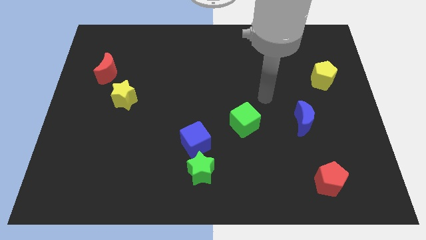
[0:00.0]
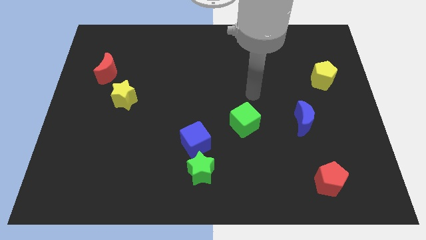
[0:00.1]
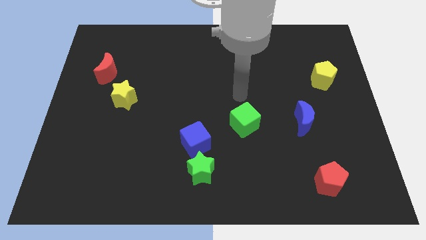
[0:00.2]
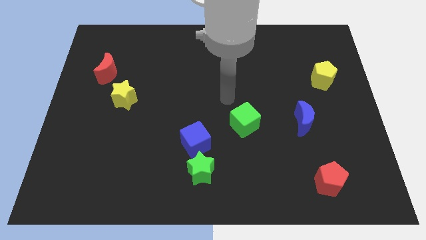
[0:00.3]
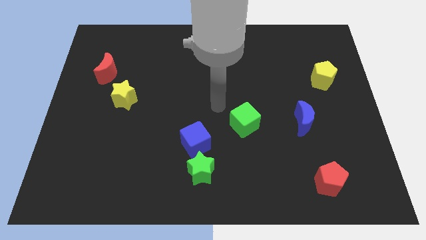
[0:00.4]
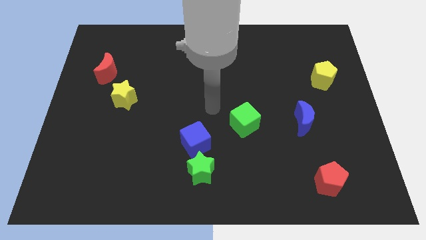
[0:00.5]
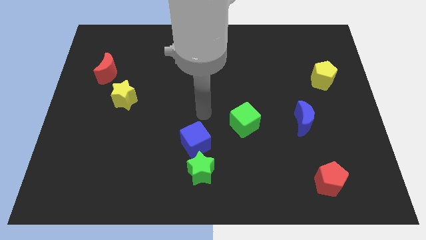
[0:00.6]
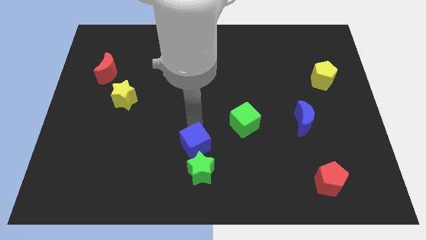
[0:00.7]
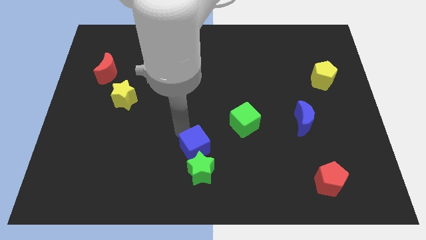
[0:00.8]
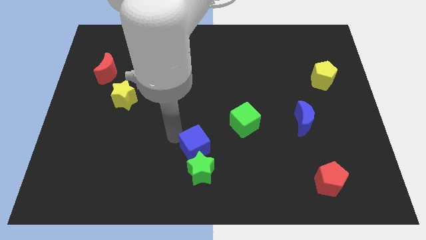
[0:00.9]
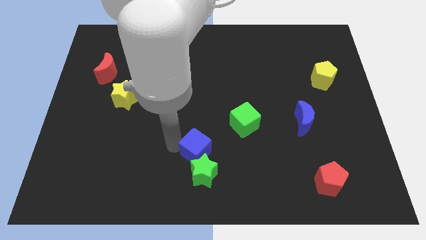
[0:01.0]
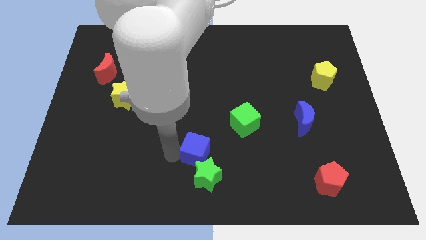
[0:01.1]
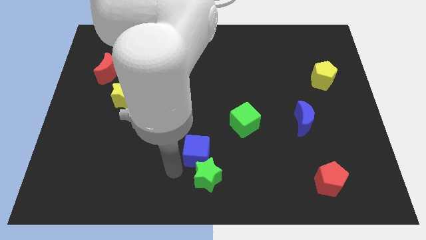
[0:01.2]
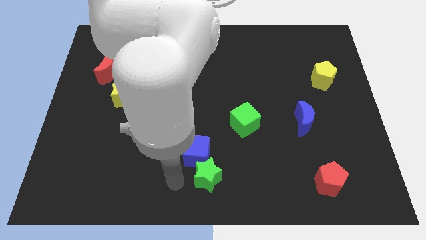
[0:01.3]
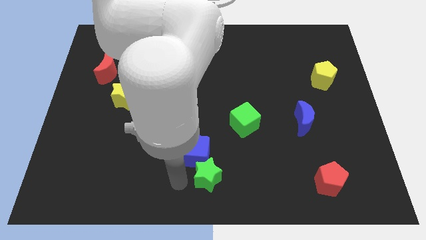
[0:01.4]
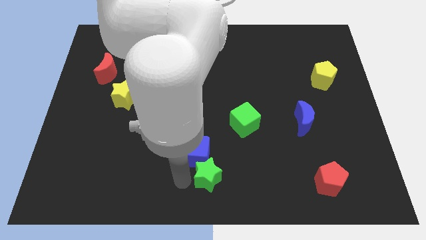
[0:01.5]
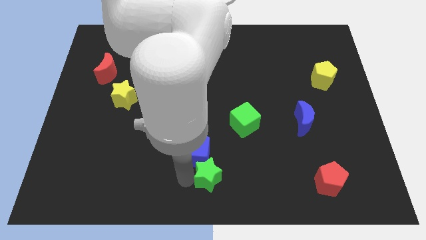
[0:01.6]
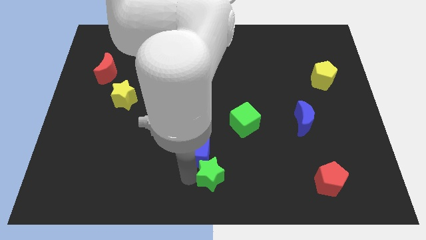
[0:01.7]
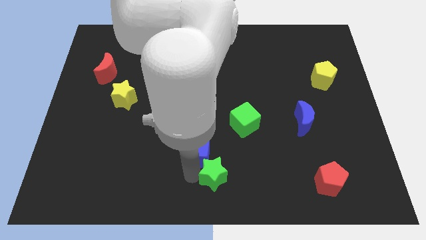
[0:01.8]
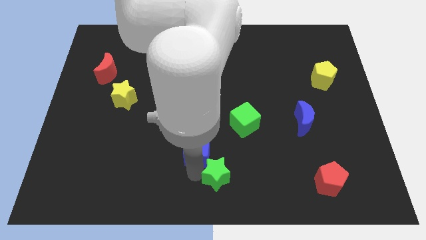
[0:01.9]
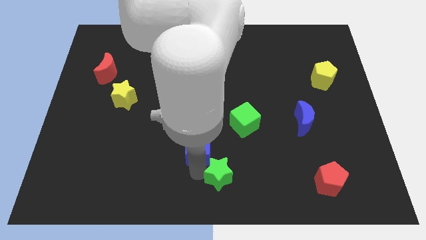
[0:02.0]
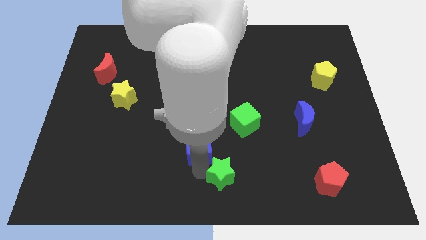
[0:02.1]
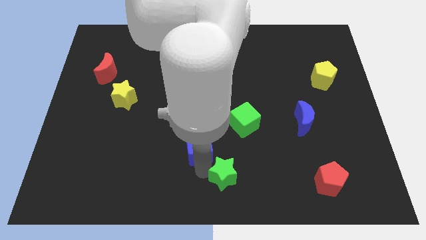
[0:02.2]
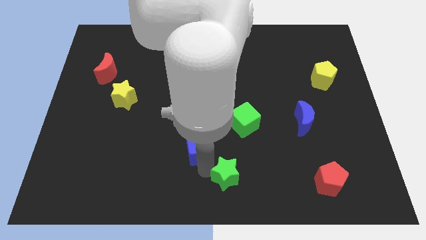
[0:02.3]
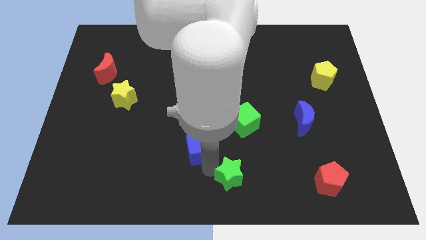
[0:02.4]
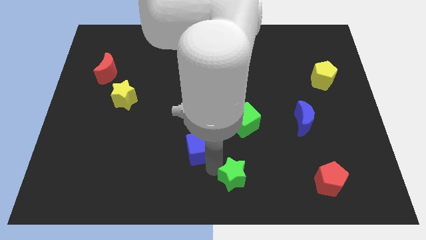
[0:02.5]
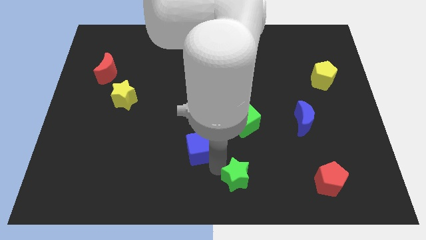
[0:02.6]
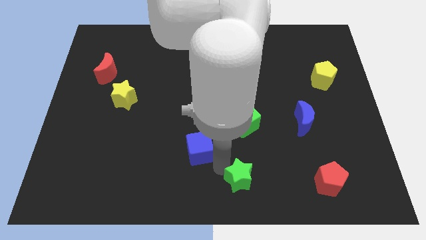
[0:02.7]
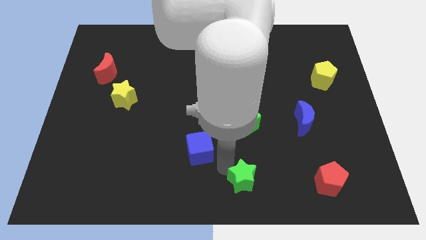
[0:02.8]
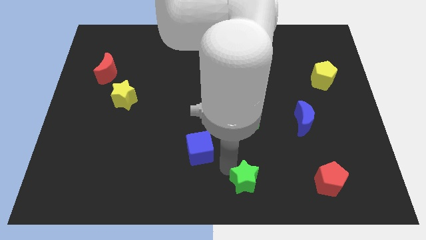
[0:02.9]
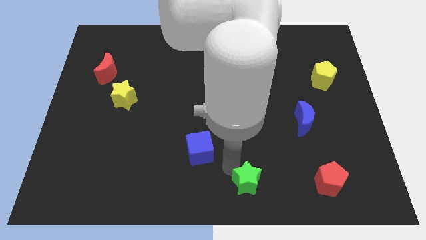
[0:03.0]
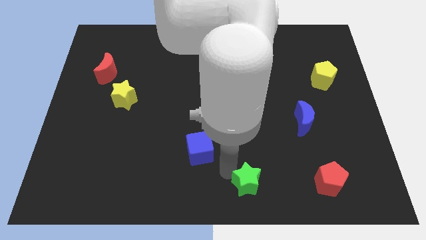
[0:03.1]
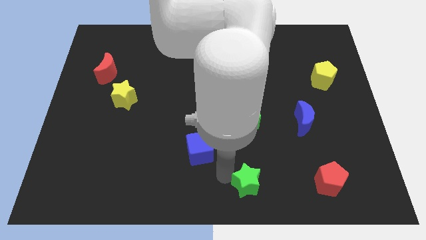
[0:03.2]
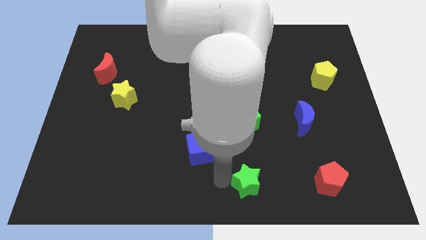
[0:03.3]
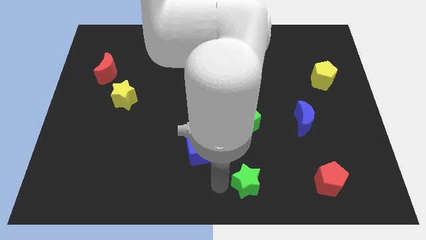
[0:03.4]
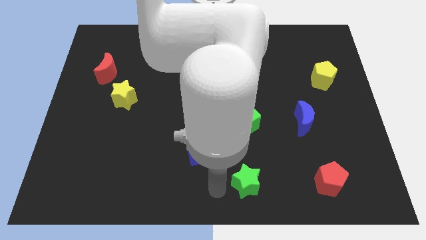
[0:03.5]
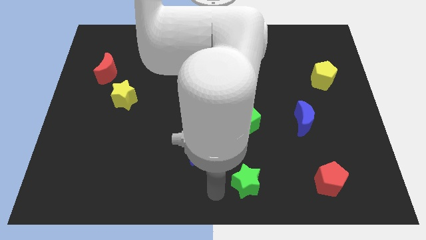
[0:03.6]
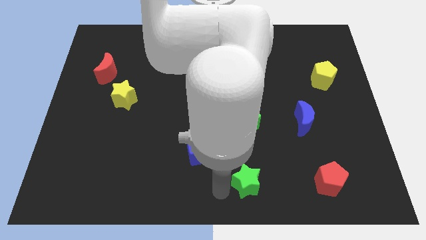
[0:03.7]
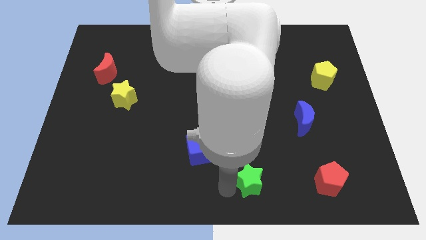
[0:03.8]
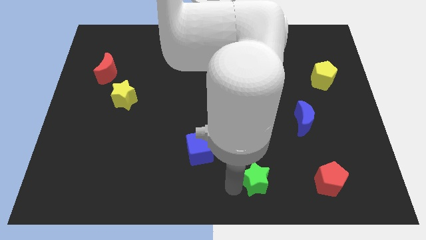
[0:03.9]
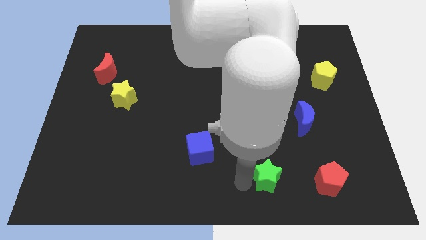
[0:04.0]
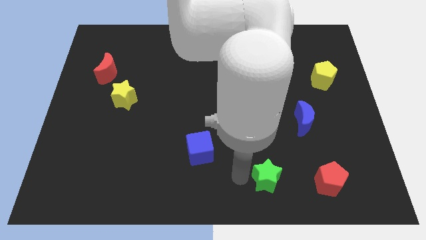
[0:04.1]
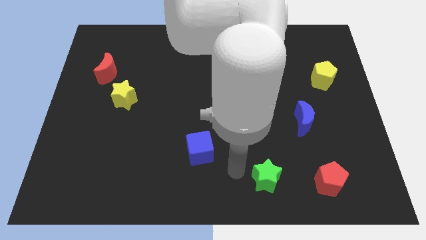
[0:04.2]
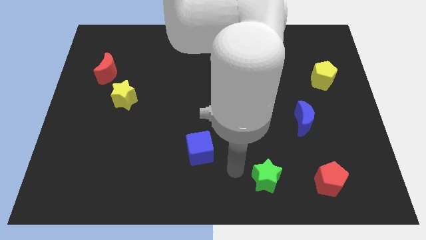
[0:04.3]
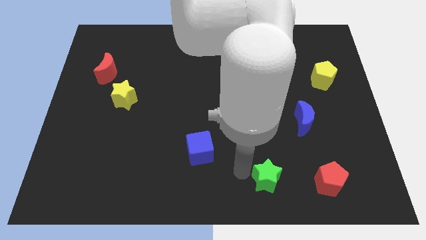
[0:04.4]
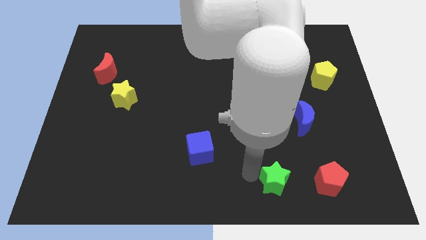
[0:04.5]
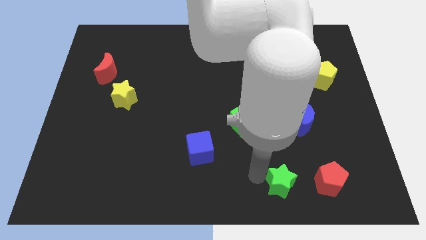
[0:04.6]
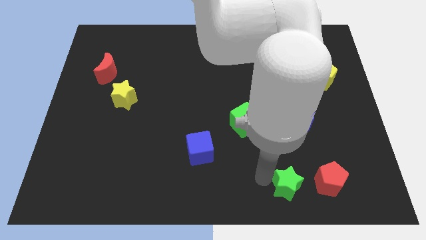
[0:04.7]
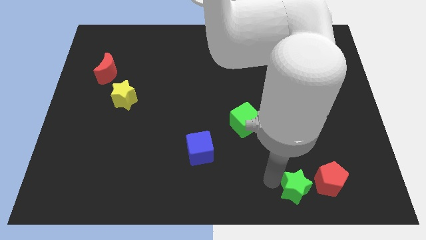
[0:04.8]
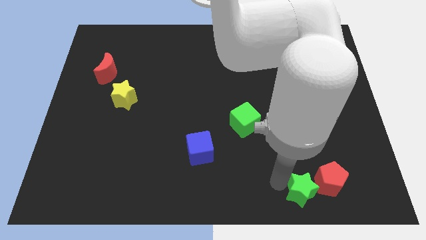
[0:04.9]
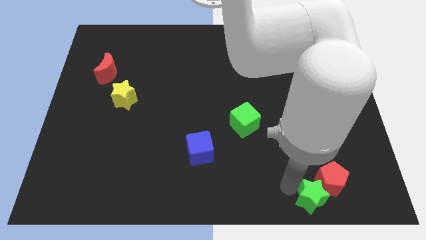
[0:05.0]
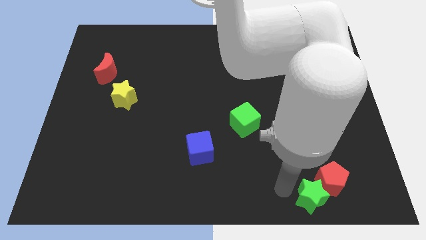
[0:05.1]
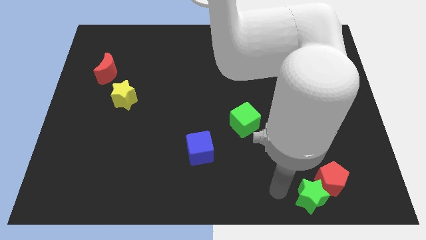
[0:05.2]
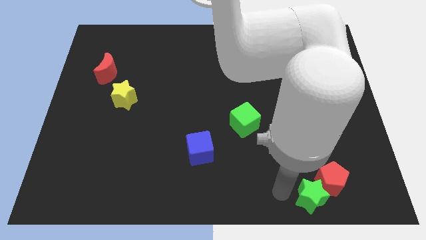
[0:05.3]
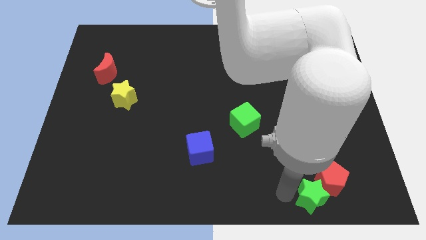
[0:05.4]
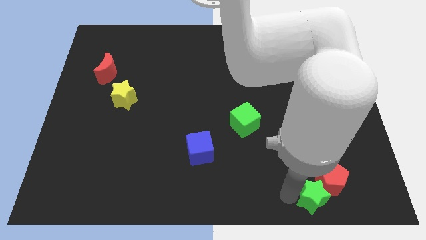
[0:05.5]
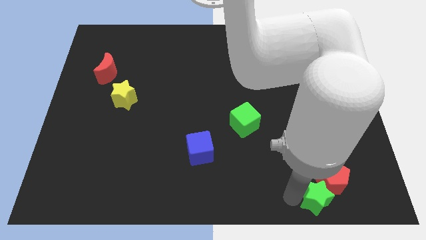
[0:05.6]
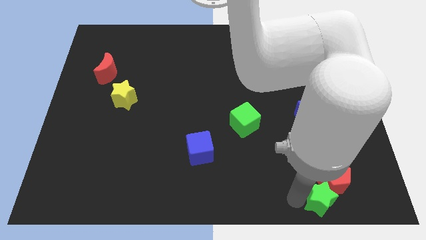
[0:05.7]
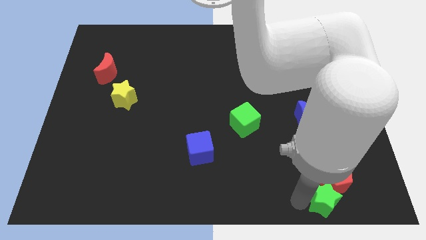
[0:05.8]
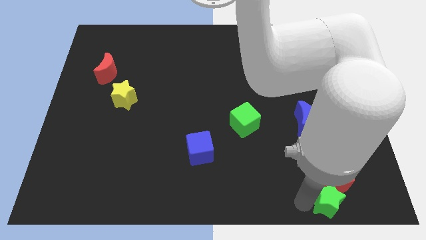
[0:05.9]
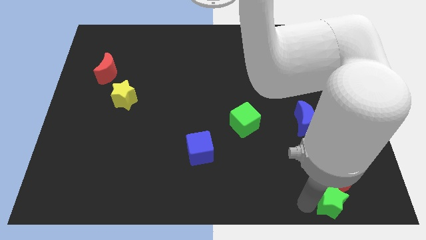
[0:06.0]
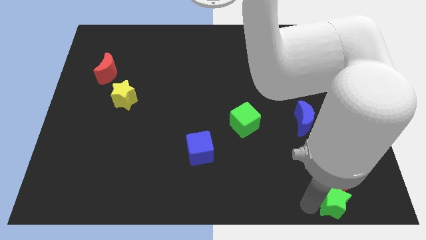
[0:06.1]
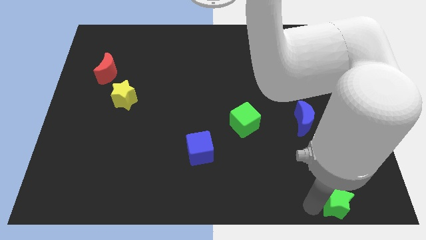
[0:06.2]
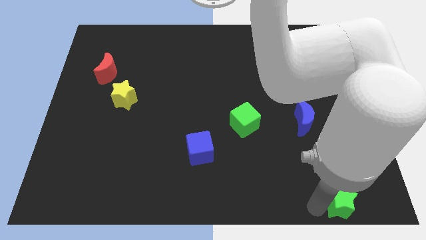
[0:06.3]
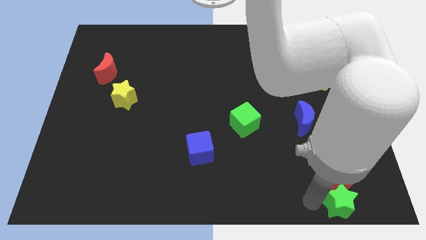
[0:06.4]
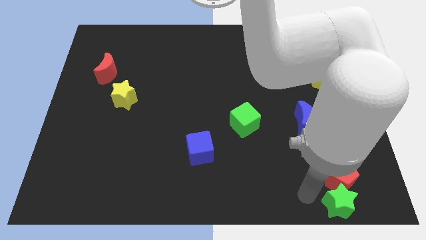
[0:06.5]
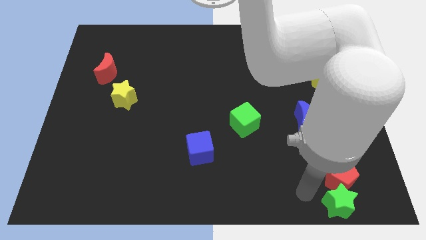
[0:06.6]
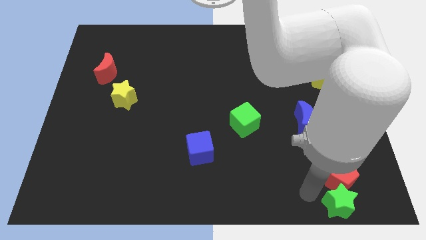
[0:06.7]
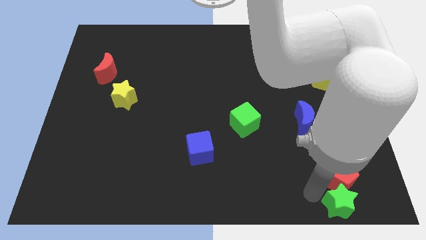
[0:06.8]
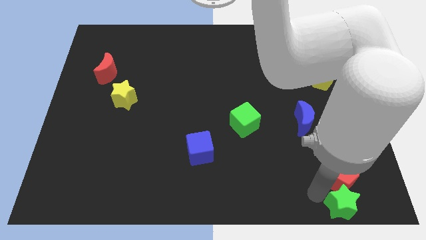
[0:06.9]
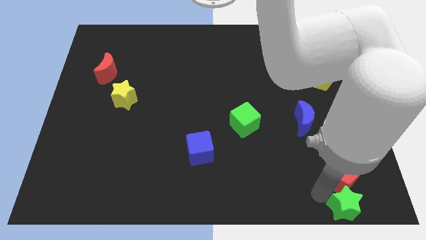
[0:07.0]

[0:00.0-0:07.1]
put the green star to the bottom right corner
